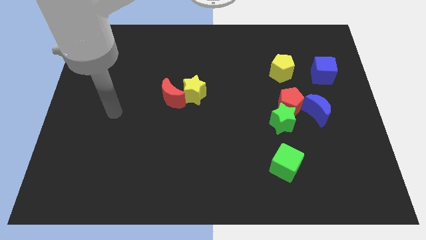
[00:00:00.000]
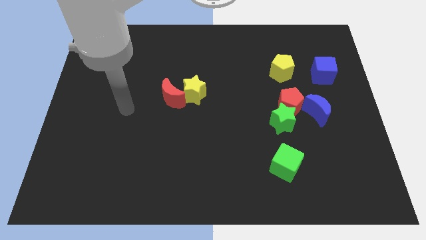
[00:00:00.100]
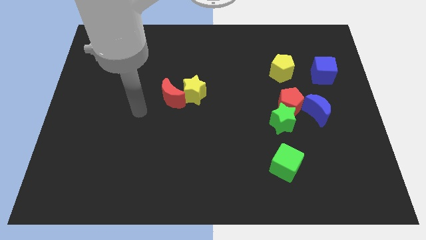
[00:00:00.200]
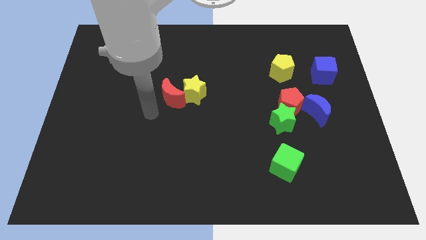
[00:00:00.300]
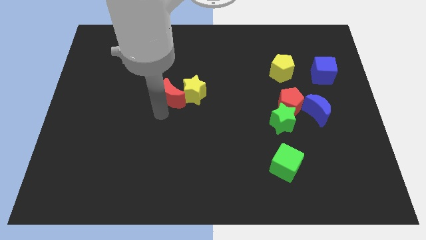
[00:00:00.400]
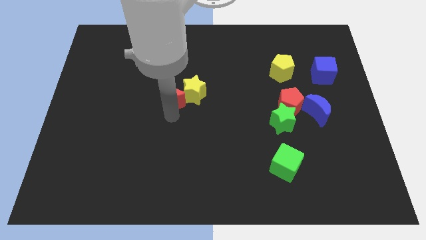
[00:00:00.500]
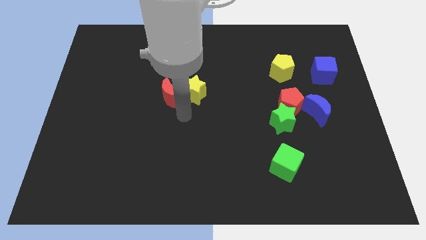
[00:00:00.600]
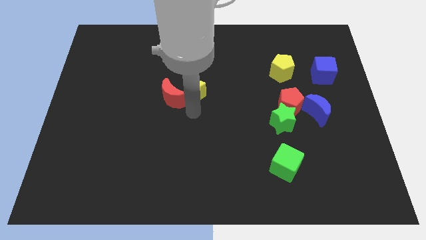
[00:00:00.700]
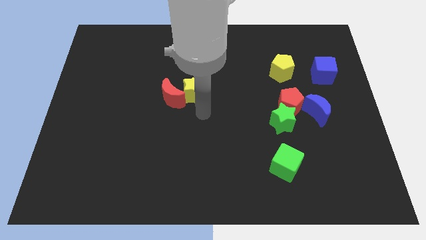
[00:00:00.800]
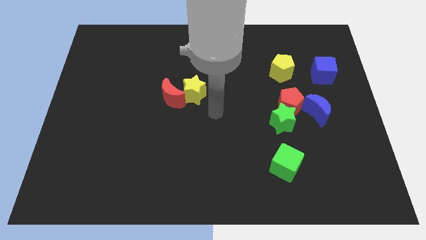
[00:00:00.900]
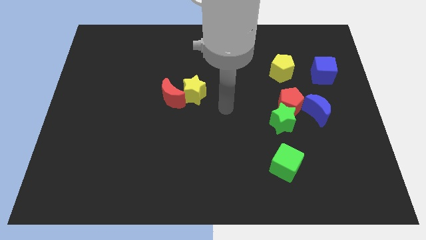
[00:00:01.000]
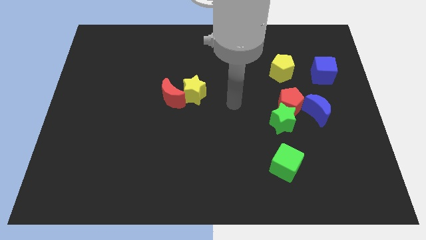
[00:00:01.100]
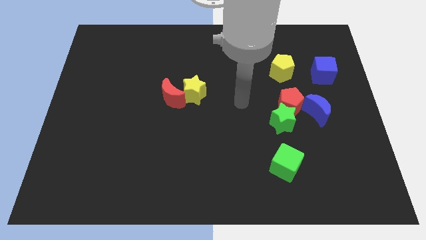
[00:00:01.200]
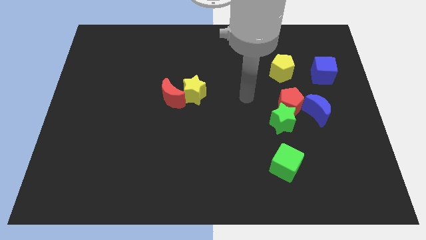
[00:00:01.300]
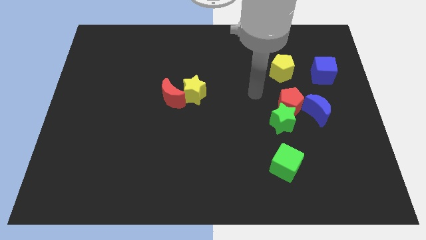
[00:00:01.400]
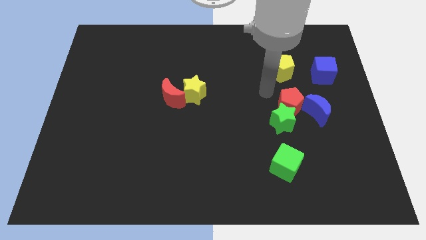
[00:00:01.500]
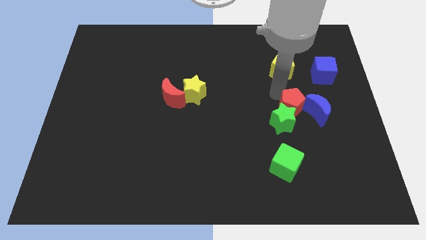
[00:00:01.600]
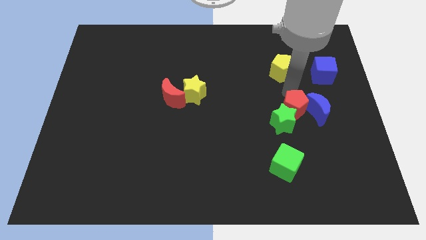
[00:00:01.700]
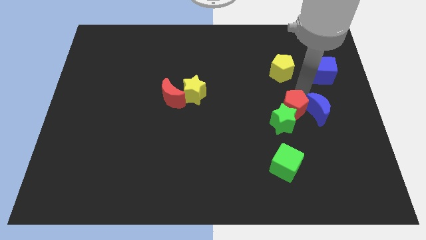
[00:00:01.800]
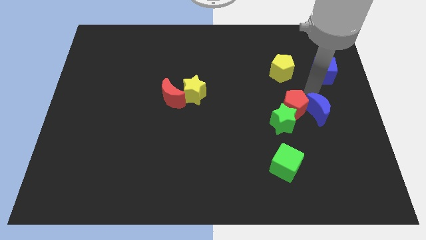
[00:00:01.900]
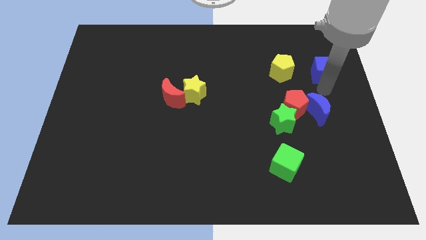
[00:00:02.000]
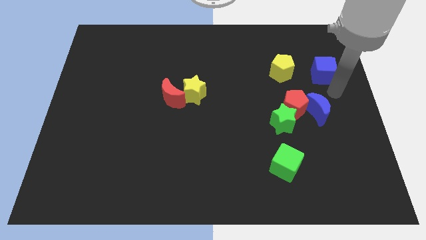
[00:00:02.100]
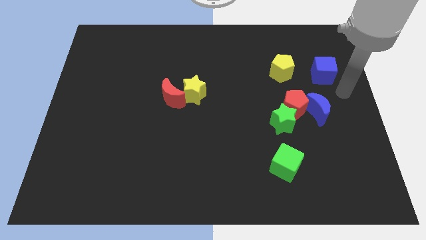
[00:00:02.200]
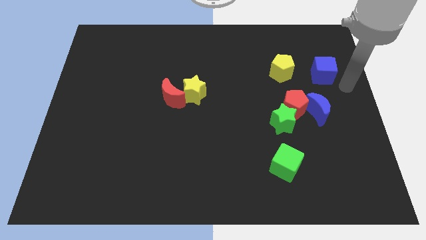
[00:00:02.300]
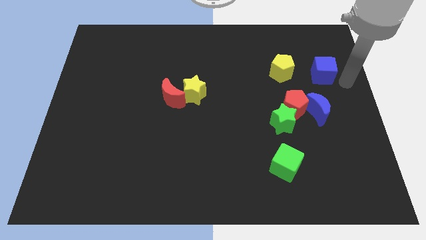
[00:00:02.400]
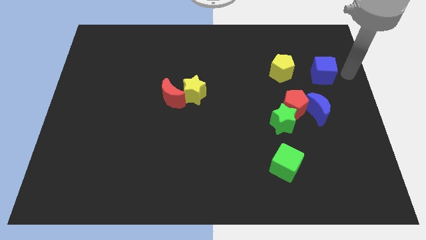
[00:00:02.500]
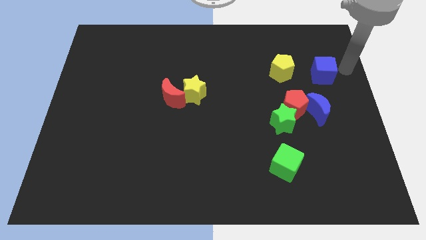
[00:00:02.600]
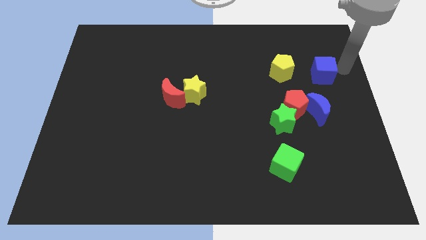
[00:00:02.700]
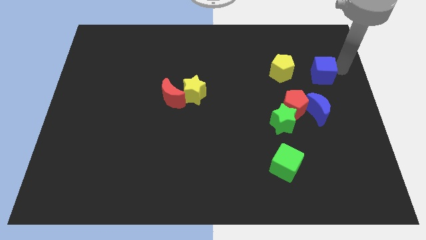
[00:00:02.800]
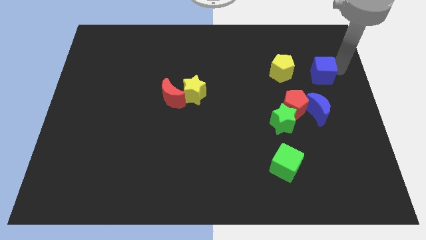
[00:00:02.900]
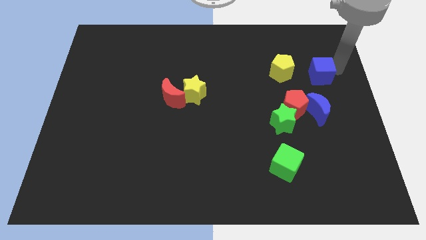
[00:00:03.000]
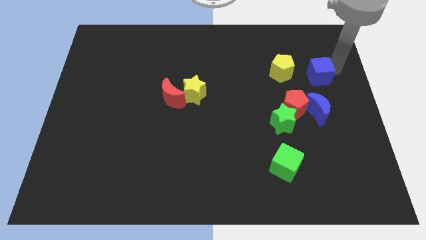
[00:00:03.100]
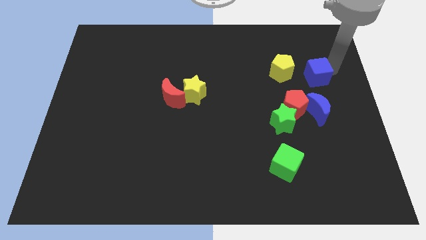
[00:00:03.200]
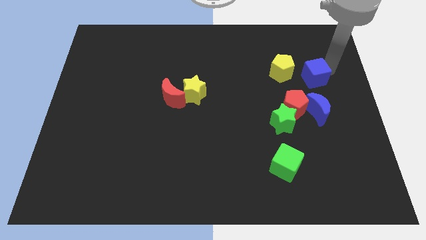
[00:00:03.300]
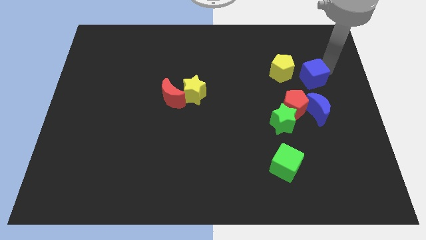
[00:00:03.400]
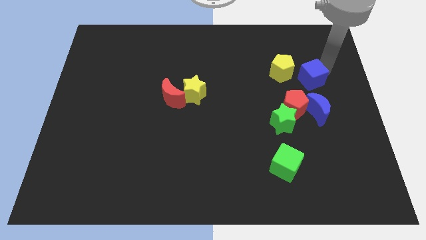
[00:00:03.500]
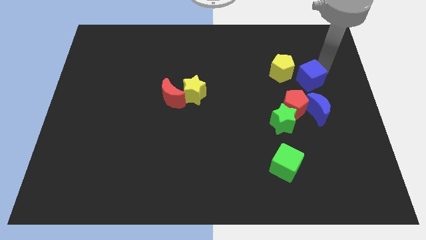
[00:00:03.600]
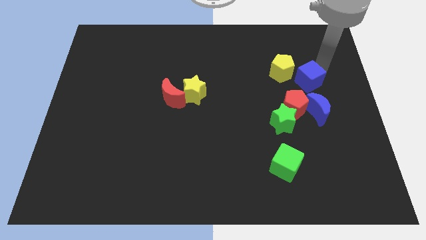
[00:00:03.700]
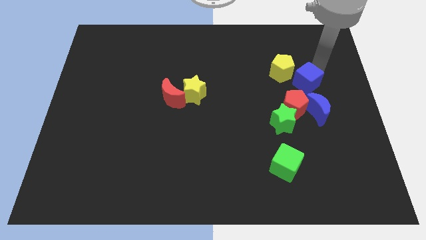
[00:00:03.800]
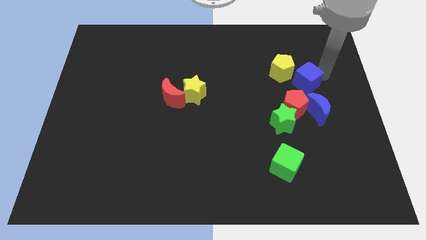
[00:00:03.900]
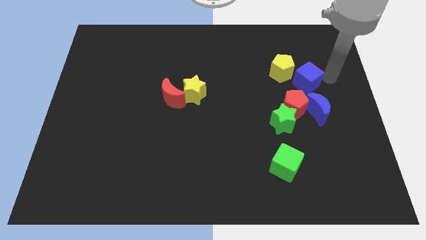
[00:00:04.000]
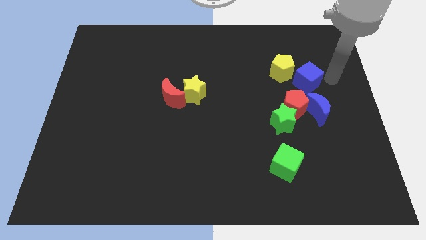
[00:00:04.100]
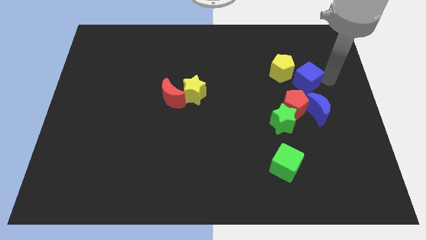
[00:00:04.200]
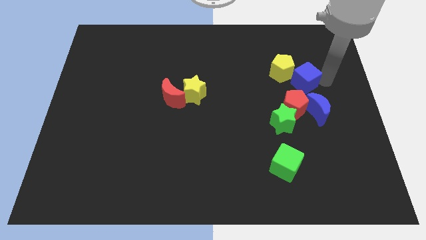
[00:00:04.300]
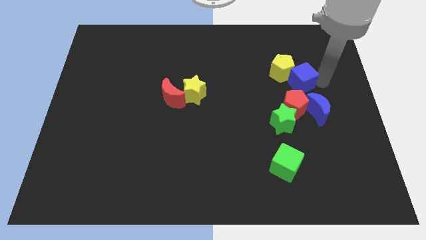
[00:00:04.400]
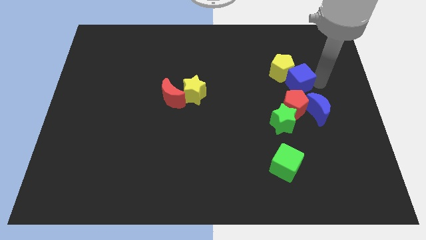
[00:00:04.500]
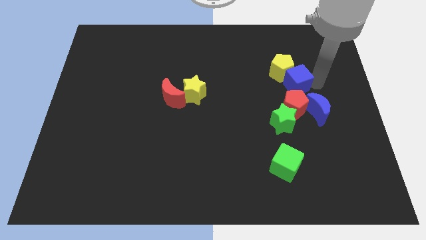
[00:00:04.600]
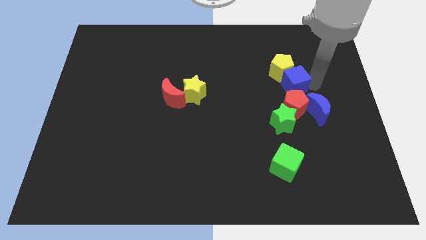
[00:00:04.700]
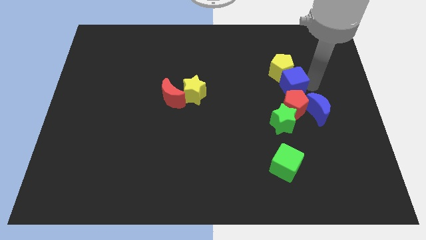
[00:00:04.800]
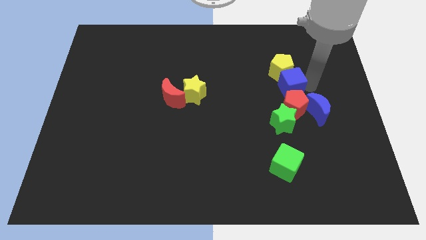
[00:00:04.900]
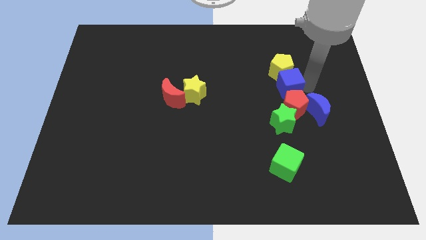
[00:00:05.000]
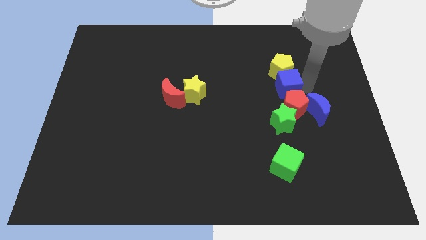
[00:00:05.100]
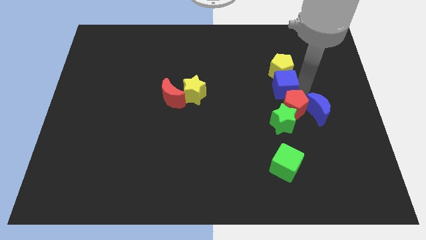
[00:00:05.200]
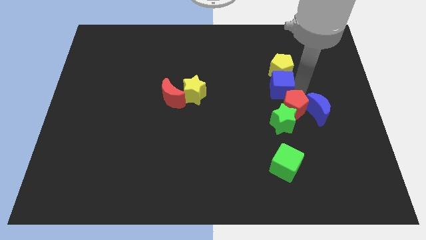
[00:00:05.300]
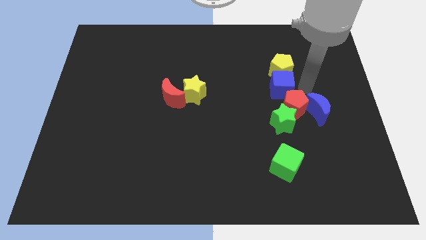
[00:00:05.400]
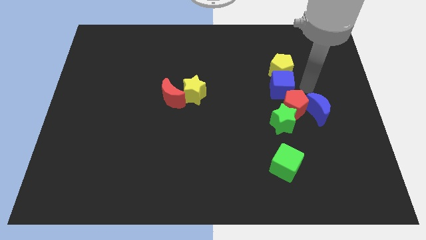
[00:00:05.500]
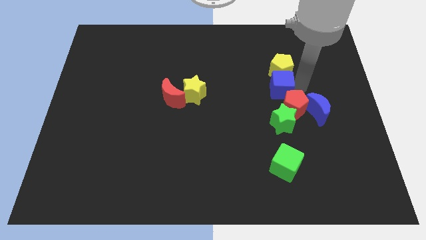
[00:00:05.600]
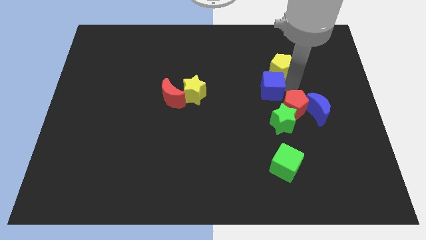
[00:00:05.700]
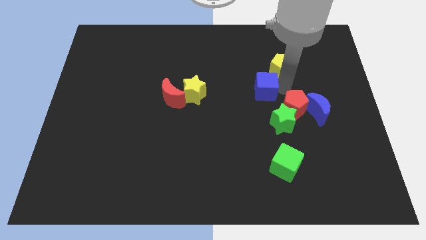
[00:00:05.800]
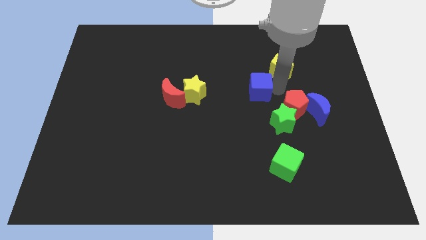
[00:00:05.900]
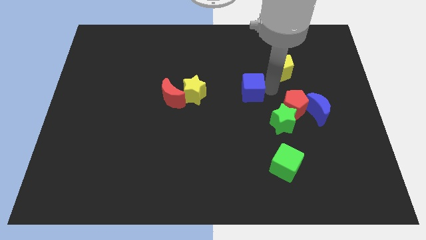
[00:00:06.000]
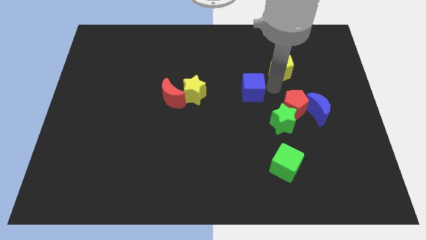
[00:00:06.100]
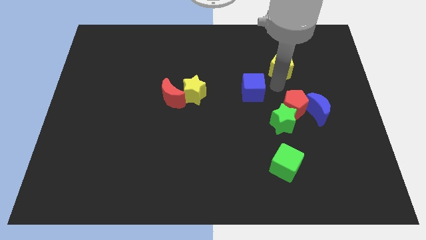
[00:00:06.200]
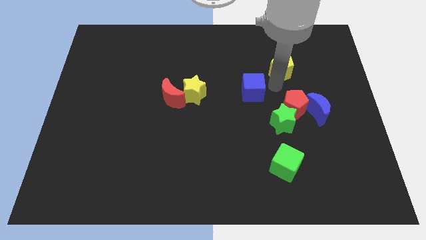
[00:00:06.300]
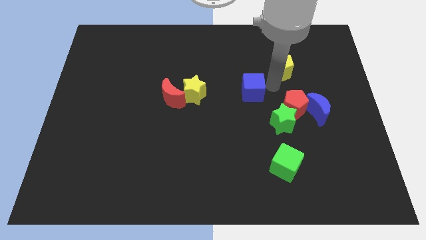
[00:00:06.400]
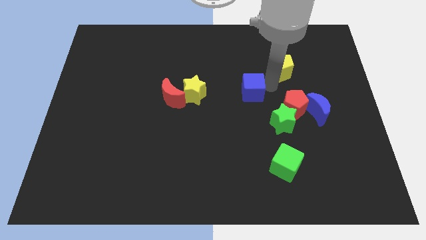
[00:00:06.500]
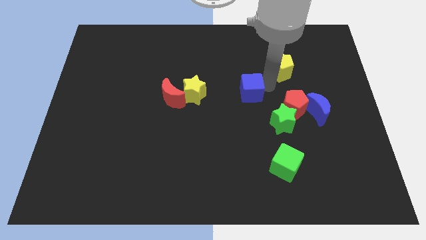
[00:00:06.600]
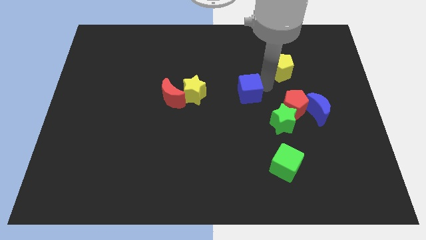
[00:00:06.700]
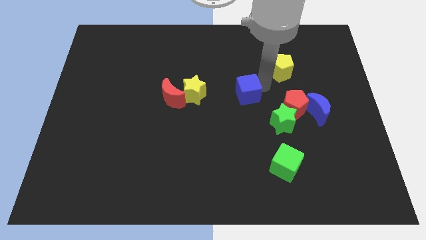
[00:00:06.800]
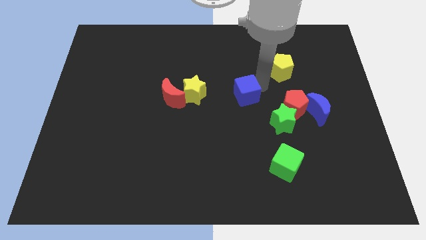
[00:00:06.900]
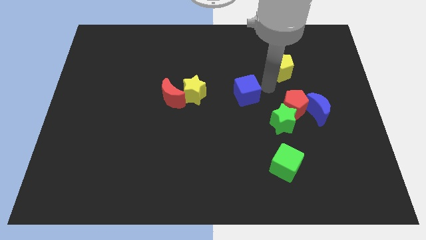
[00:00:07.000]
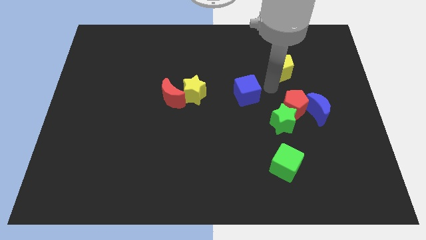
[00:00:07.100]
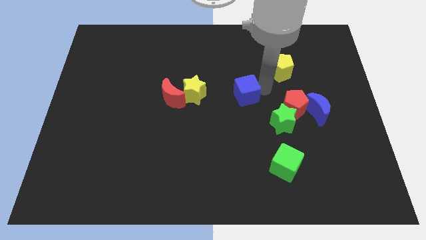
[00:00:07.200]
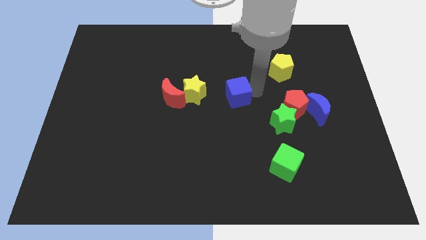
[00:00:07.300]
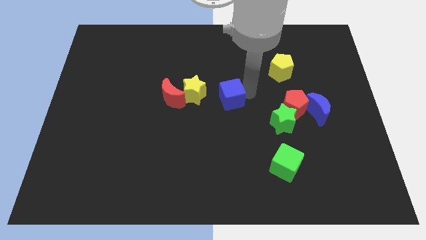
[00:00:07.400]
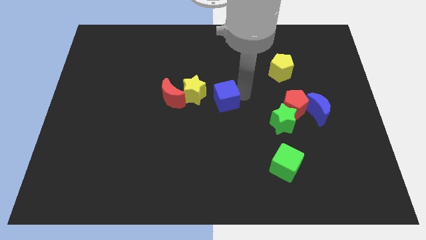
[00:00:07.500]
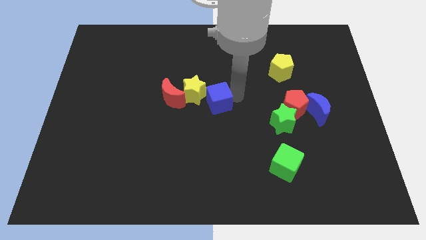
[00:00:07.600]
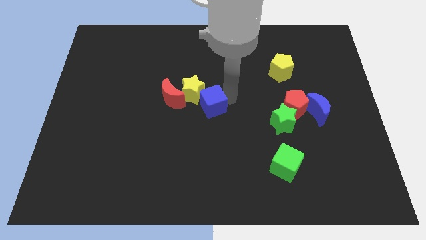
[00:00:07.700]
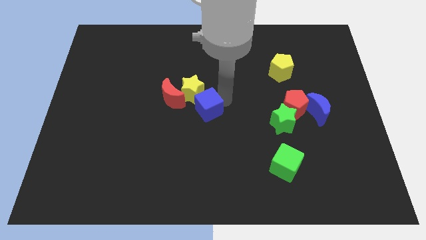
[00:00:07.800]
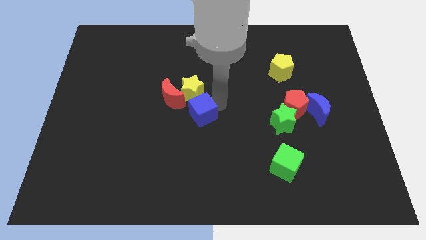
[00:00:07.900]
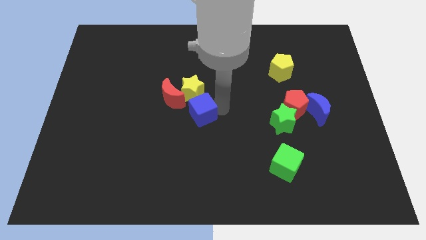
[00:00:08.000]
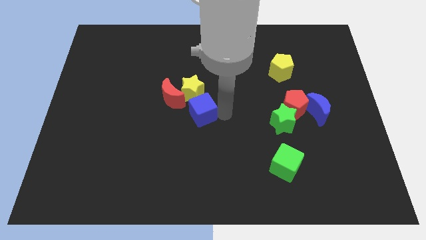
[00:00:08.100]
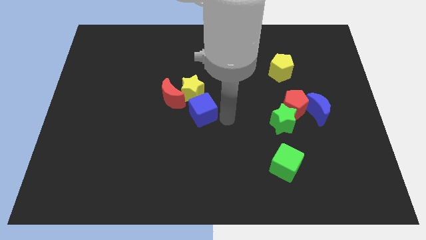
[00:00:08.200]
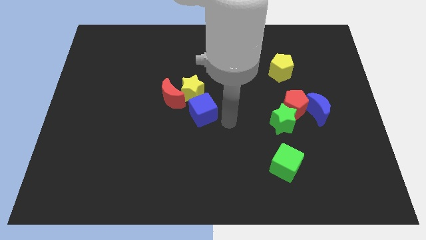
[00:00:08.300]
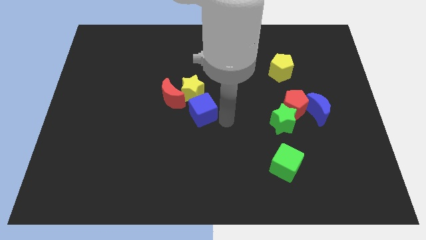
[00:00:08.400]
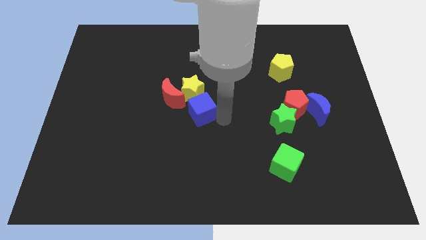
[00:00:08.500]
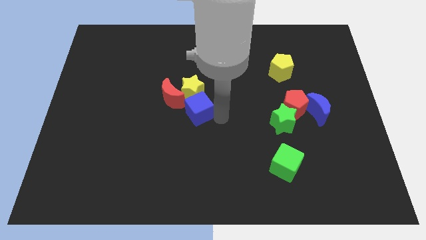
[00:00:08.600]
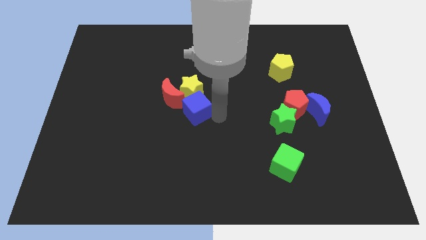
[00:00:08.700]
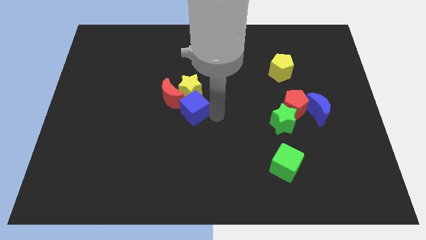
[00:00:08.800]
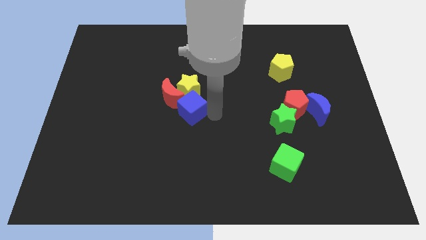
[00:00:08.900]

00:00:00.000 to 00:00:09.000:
move the blue cube next to the red moon
